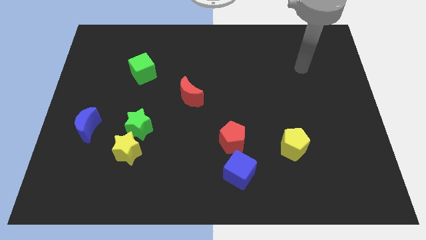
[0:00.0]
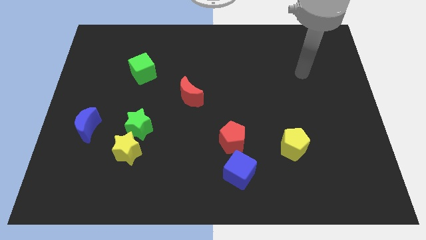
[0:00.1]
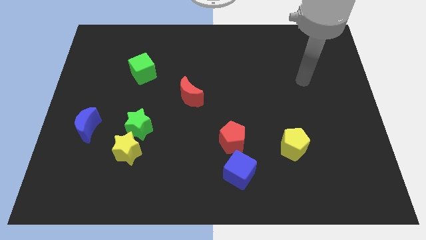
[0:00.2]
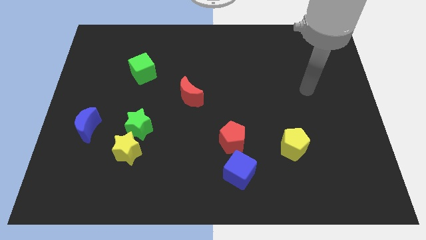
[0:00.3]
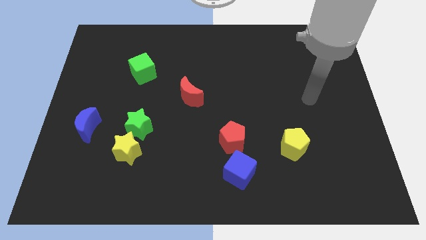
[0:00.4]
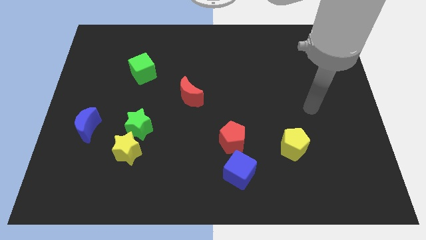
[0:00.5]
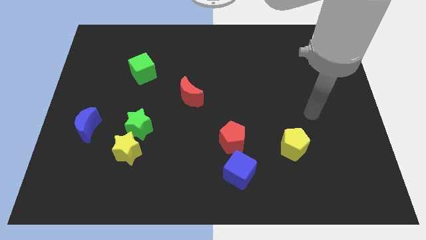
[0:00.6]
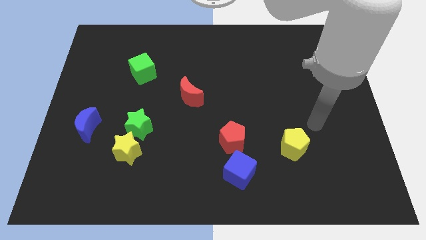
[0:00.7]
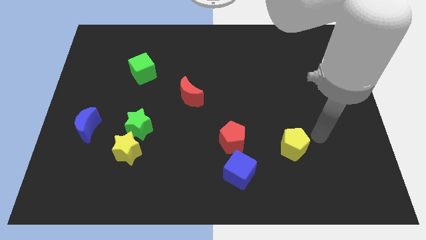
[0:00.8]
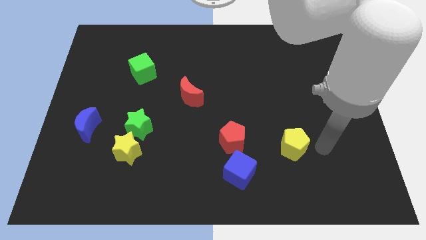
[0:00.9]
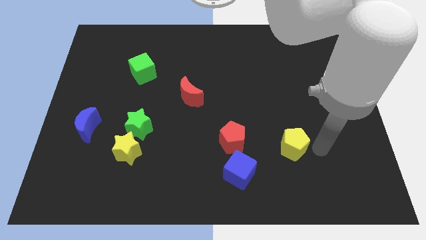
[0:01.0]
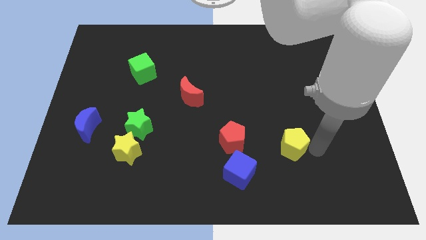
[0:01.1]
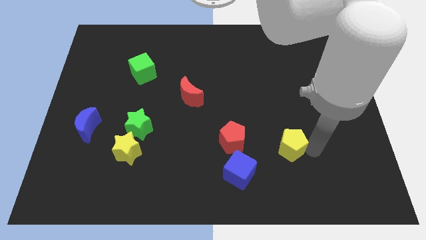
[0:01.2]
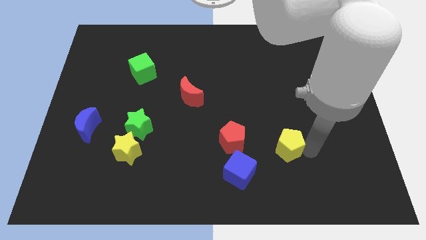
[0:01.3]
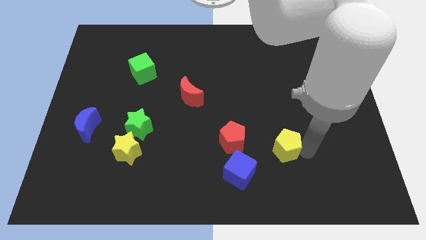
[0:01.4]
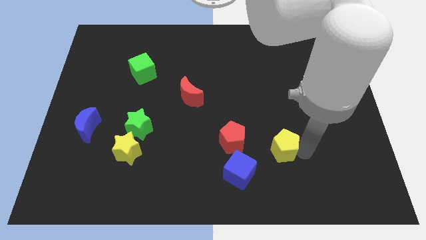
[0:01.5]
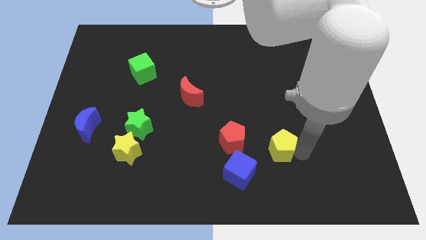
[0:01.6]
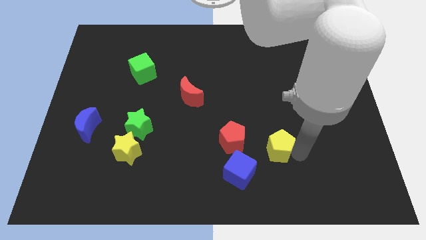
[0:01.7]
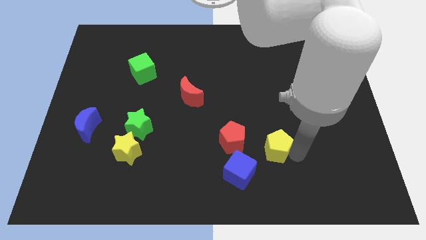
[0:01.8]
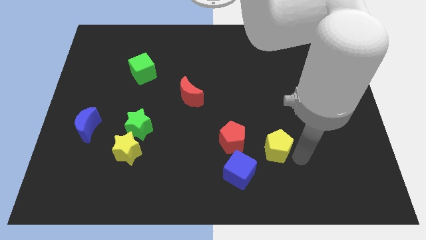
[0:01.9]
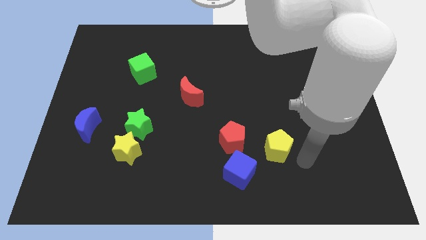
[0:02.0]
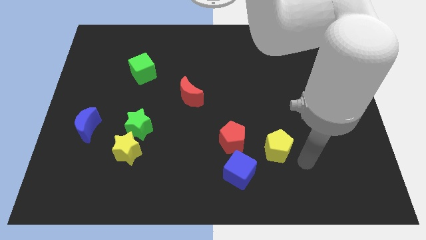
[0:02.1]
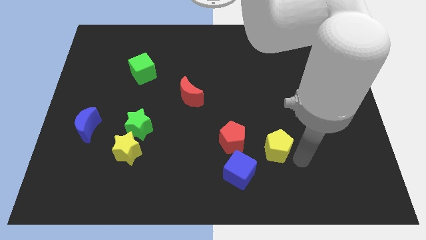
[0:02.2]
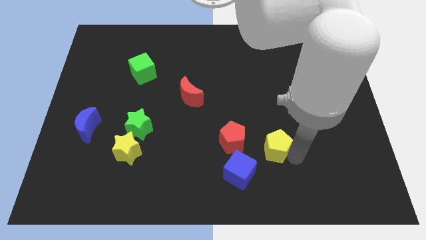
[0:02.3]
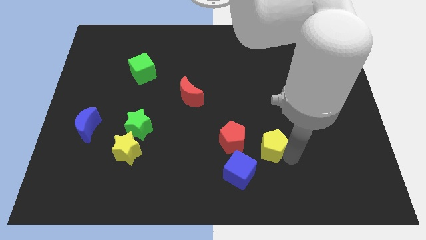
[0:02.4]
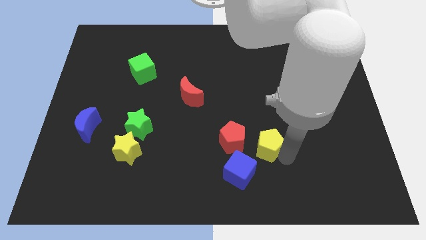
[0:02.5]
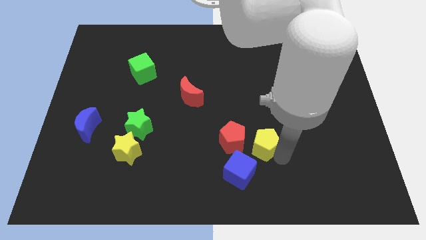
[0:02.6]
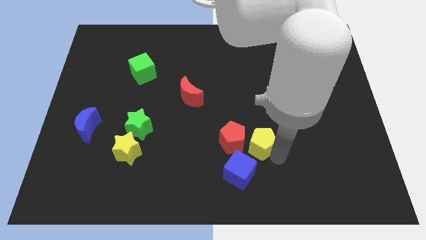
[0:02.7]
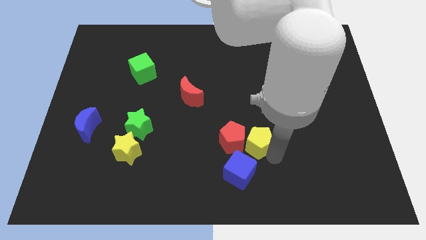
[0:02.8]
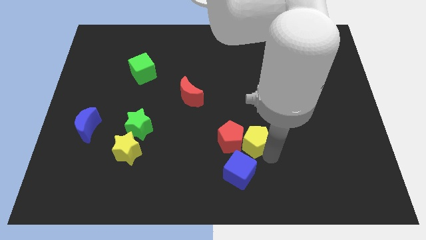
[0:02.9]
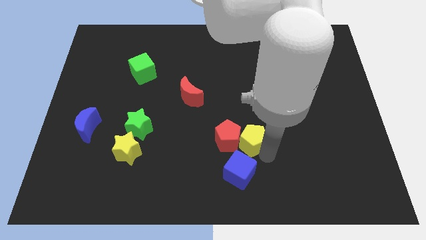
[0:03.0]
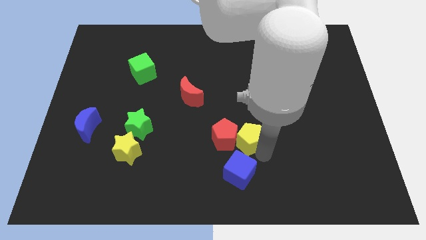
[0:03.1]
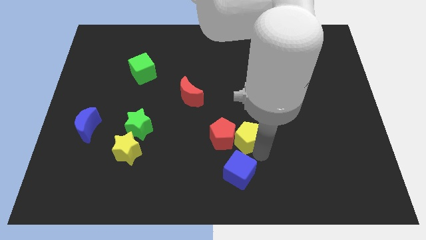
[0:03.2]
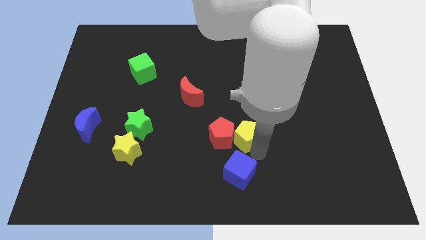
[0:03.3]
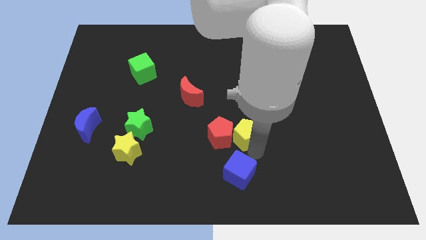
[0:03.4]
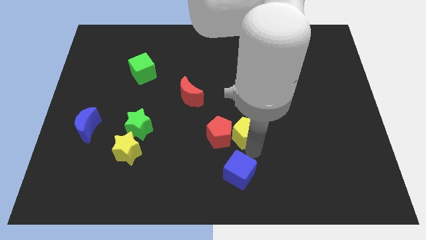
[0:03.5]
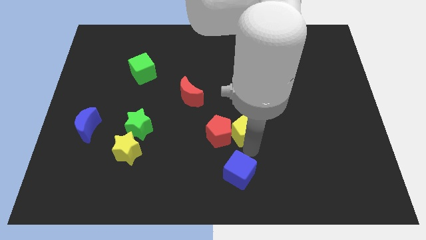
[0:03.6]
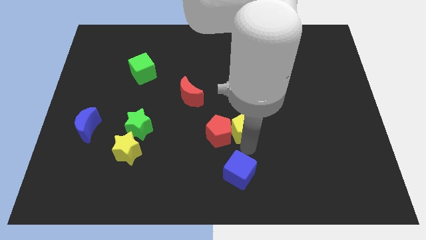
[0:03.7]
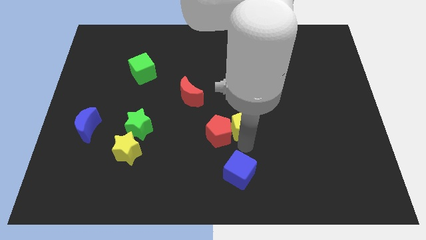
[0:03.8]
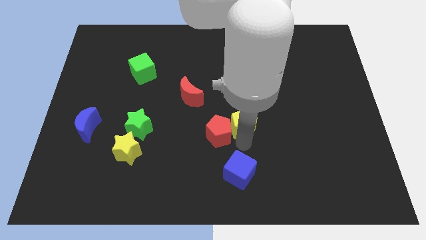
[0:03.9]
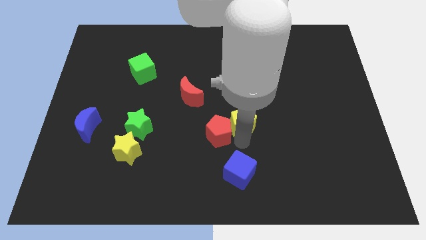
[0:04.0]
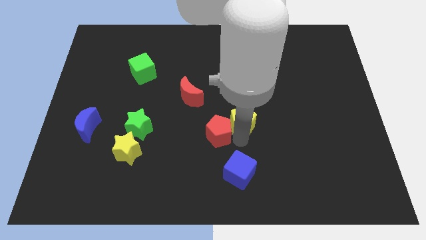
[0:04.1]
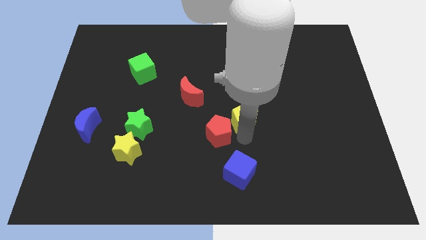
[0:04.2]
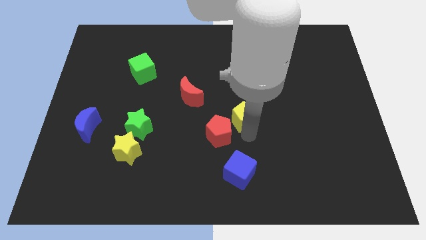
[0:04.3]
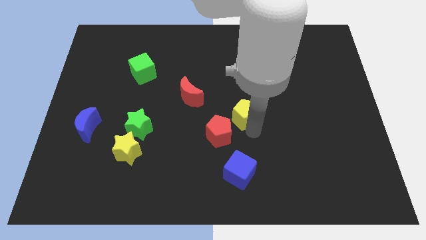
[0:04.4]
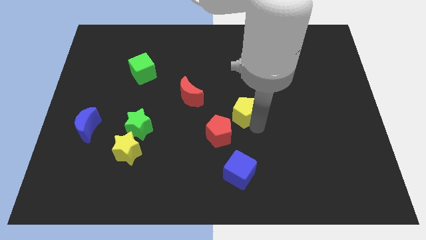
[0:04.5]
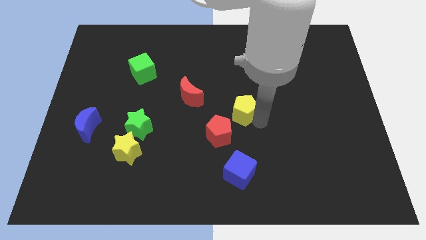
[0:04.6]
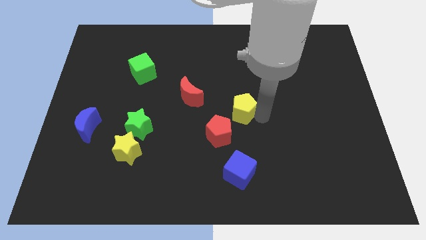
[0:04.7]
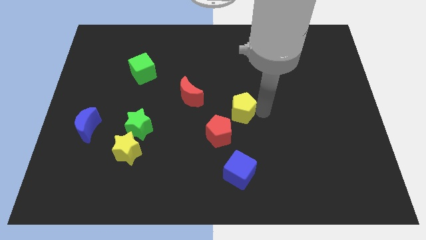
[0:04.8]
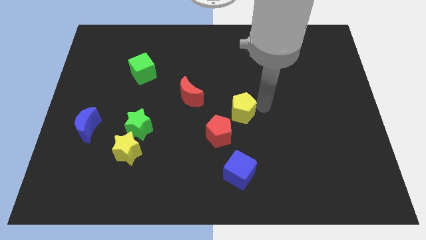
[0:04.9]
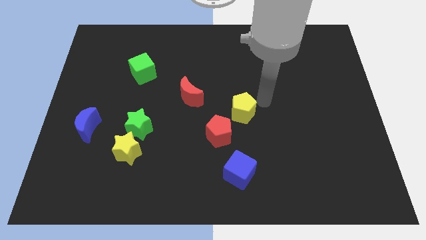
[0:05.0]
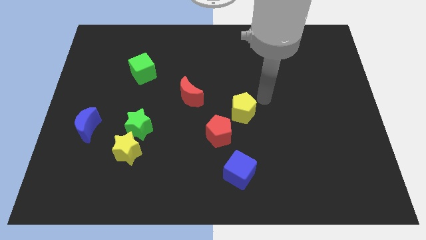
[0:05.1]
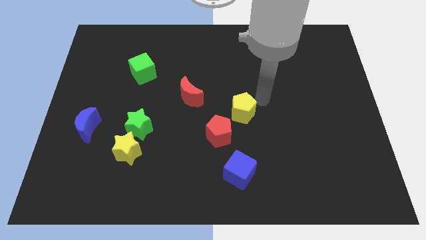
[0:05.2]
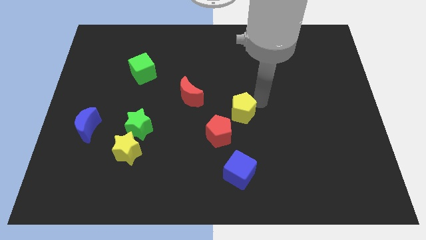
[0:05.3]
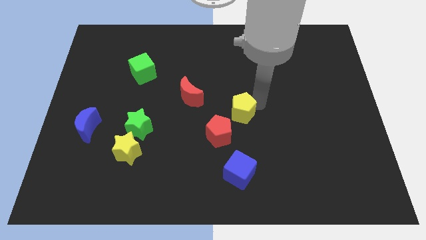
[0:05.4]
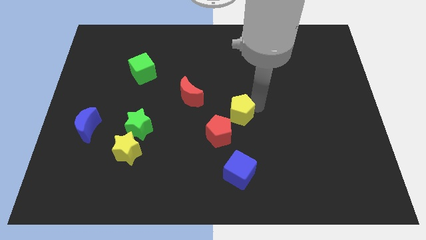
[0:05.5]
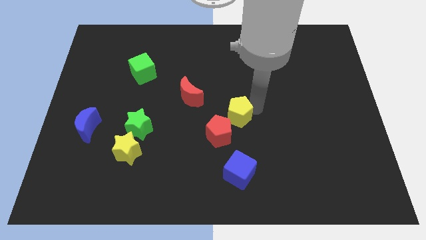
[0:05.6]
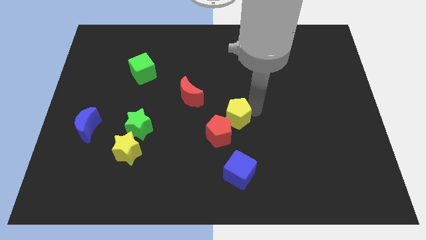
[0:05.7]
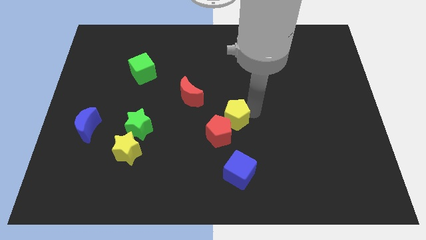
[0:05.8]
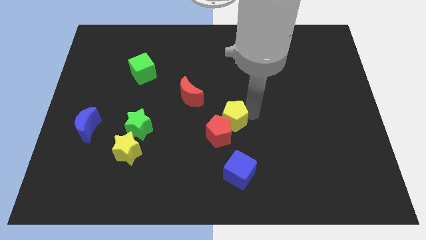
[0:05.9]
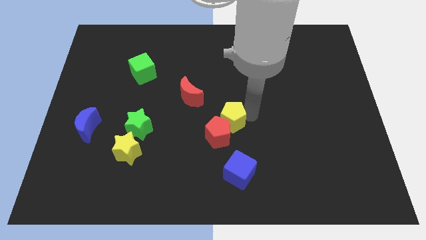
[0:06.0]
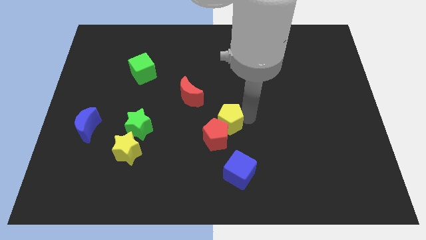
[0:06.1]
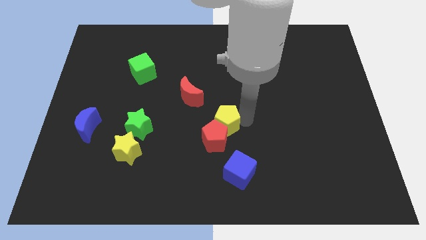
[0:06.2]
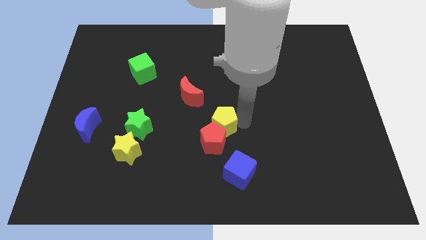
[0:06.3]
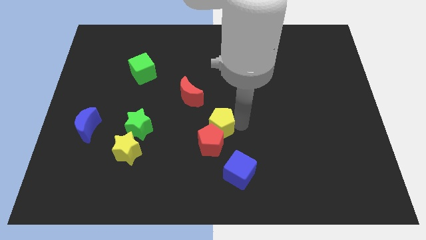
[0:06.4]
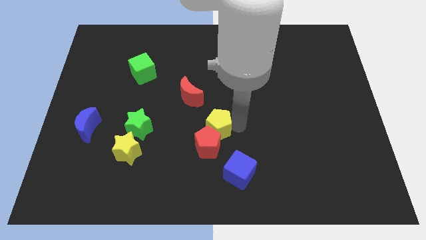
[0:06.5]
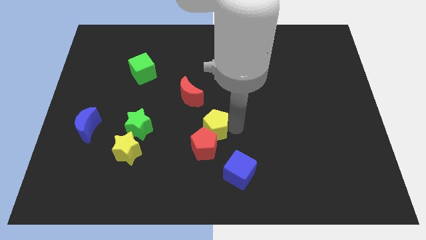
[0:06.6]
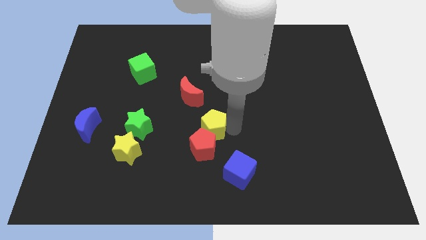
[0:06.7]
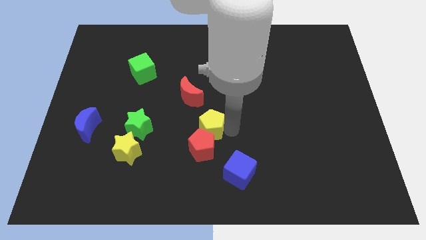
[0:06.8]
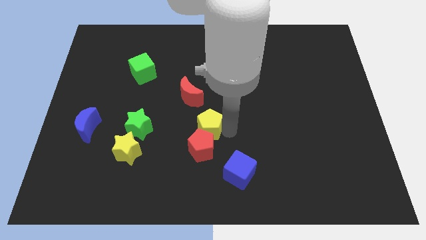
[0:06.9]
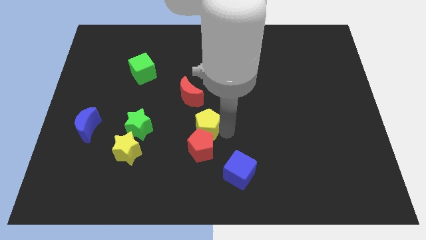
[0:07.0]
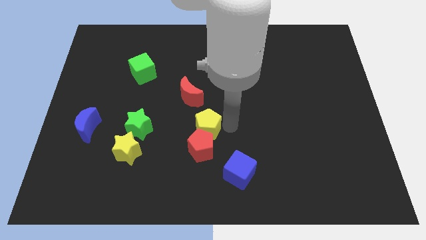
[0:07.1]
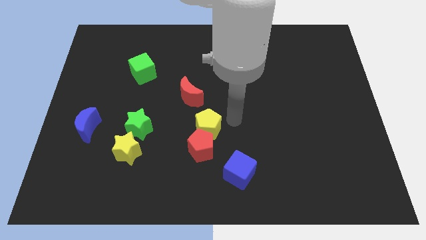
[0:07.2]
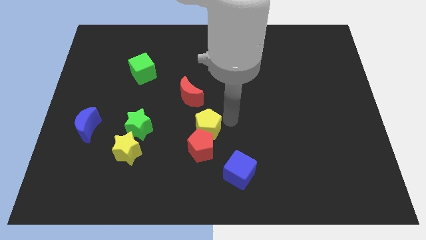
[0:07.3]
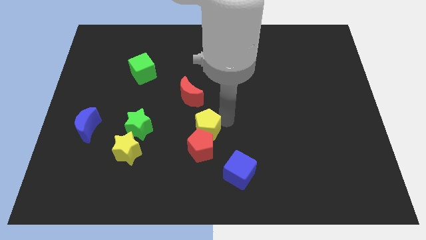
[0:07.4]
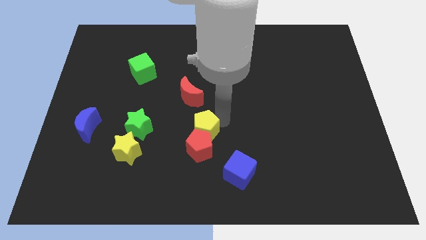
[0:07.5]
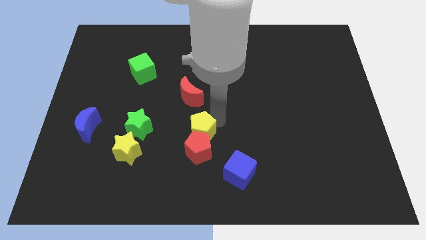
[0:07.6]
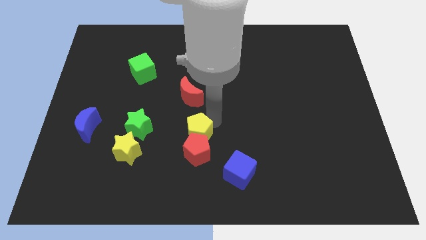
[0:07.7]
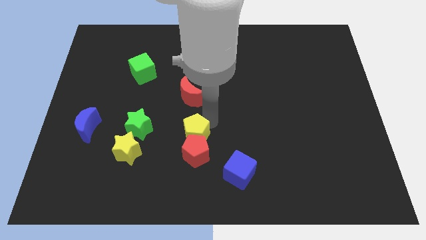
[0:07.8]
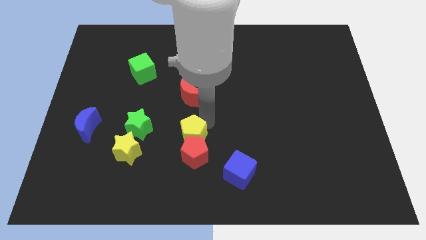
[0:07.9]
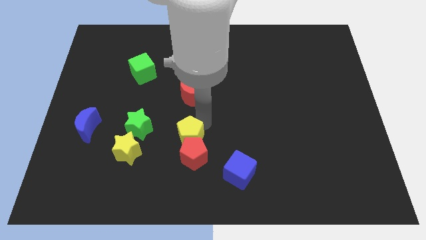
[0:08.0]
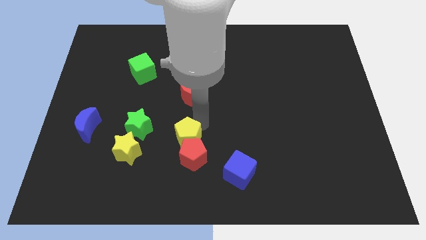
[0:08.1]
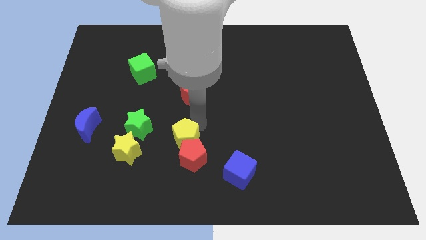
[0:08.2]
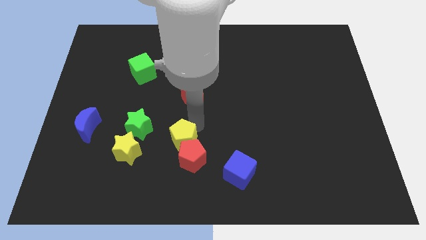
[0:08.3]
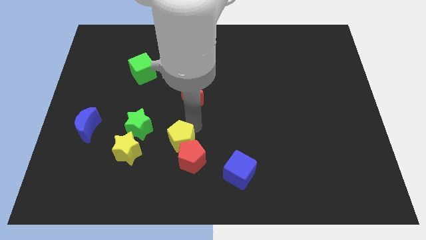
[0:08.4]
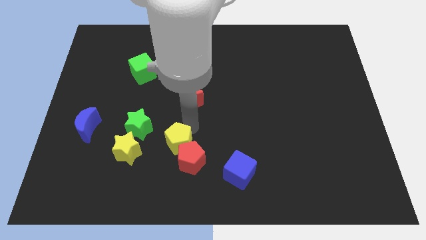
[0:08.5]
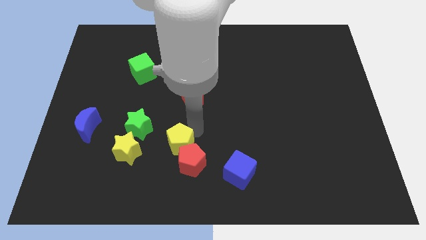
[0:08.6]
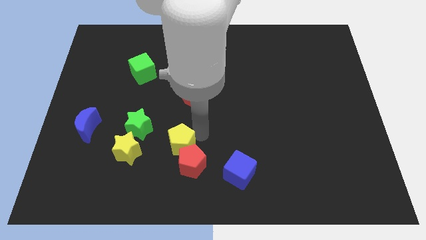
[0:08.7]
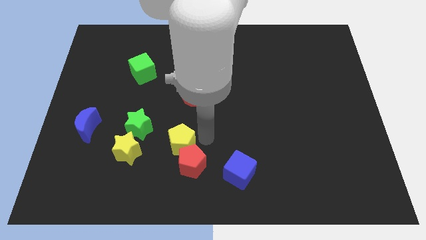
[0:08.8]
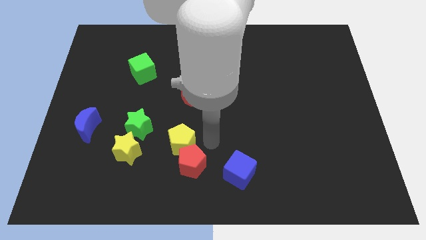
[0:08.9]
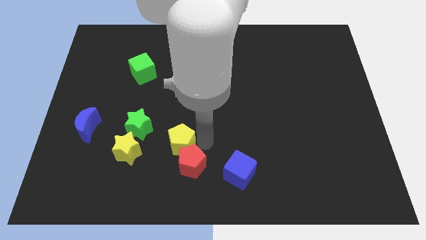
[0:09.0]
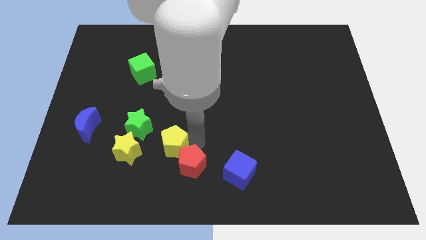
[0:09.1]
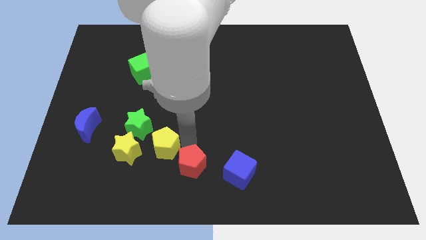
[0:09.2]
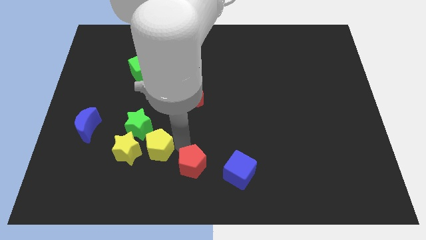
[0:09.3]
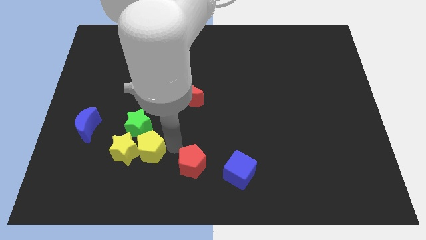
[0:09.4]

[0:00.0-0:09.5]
push the yellow pentagon towards the yellow star
